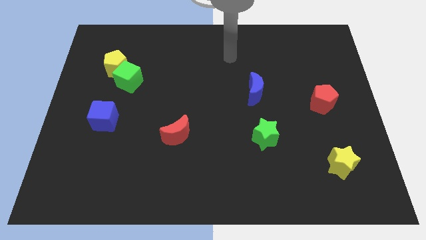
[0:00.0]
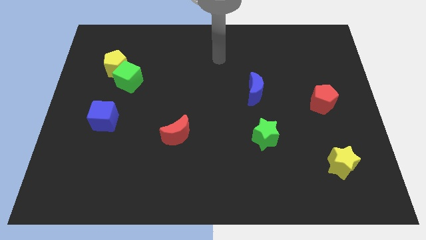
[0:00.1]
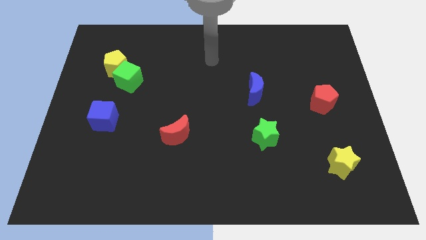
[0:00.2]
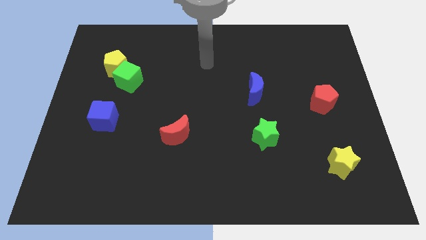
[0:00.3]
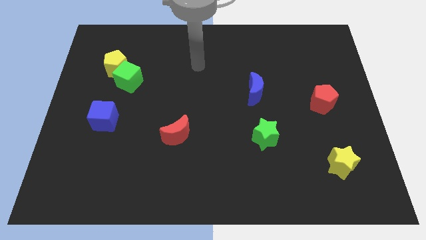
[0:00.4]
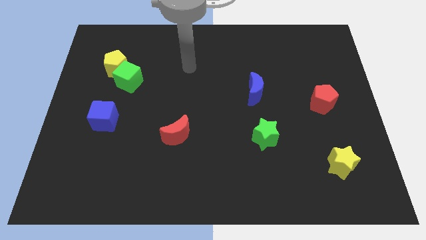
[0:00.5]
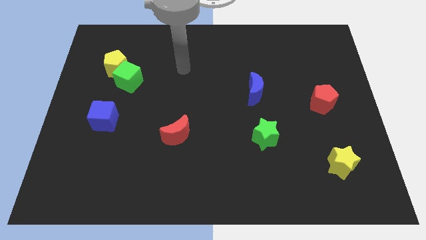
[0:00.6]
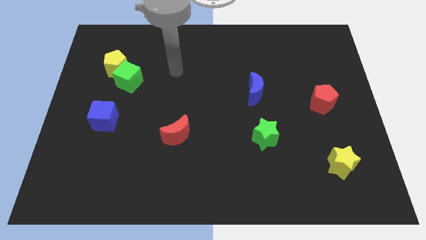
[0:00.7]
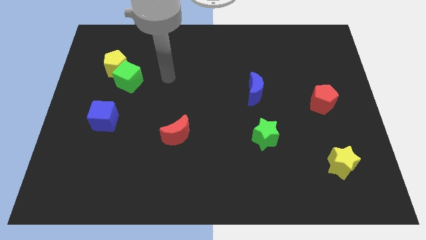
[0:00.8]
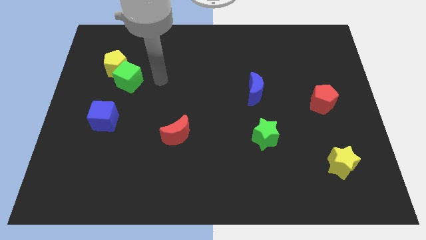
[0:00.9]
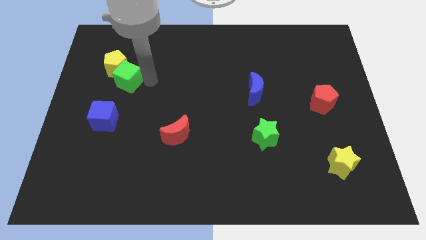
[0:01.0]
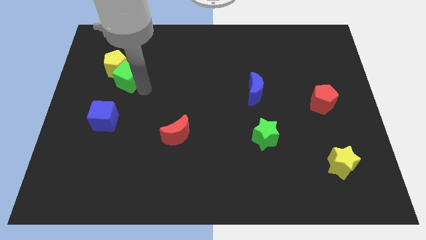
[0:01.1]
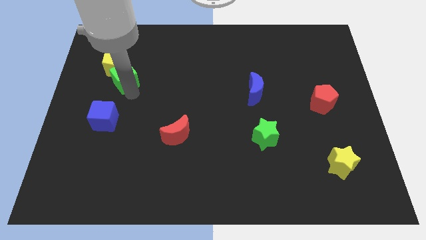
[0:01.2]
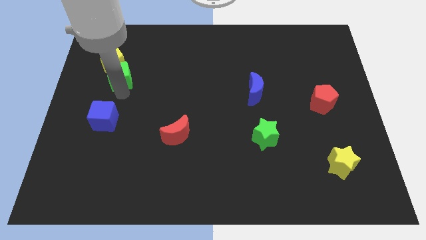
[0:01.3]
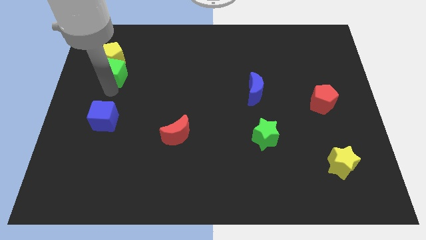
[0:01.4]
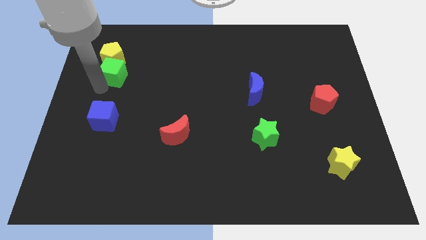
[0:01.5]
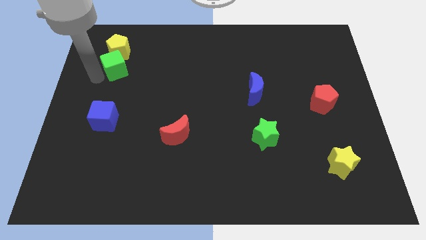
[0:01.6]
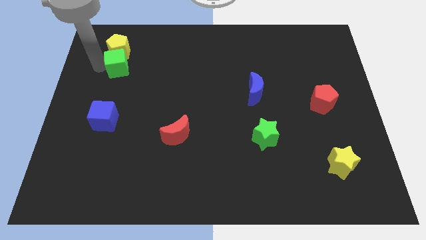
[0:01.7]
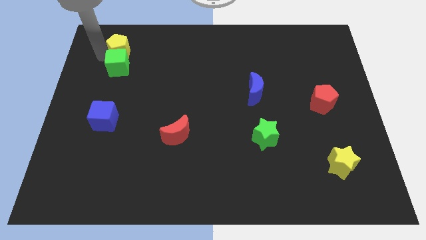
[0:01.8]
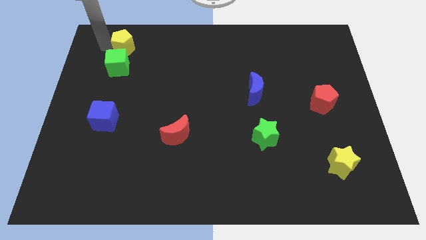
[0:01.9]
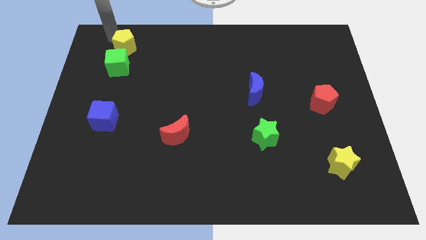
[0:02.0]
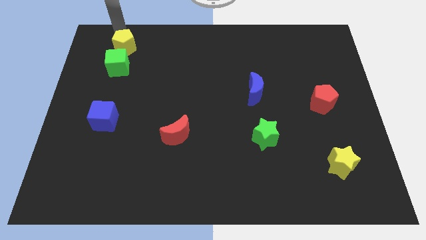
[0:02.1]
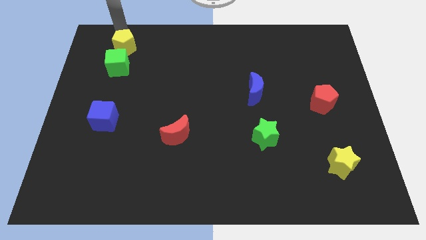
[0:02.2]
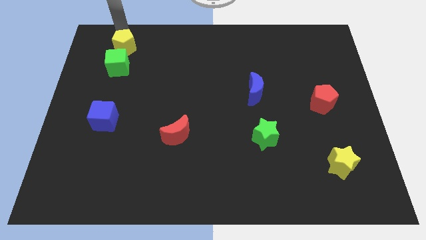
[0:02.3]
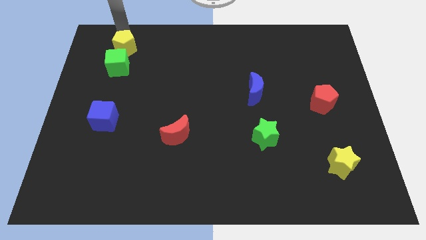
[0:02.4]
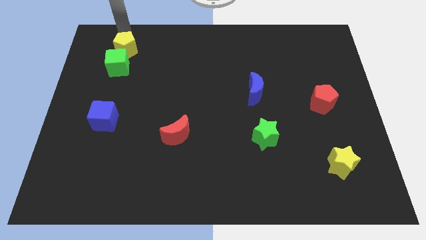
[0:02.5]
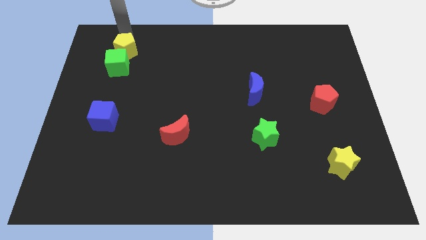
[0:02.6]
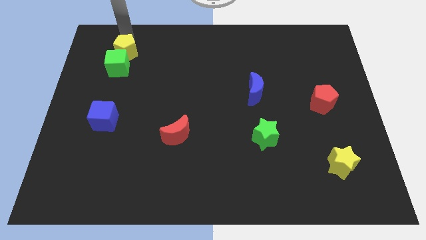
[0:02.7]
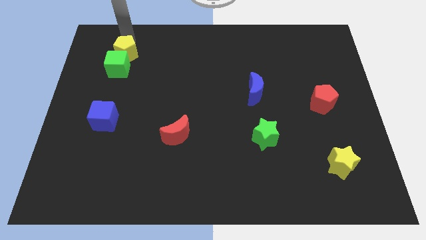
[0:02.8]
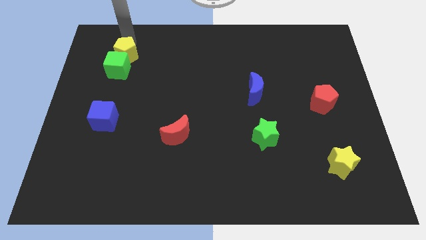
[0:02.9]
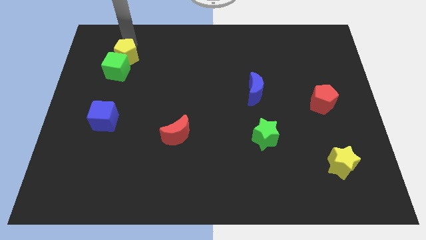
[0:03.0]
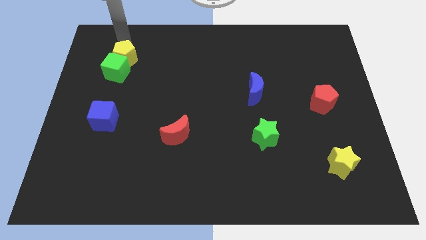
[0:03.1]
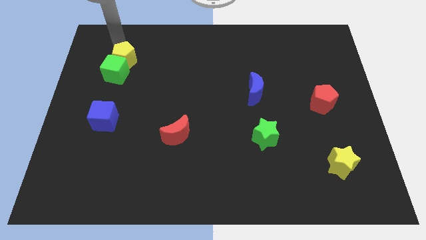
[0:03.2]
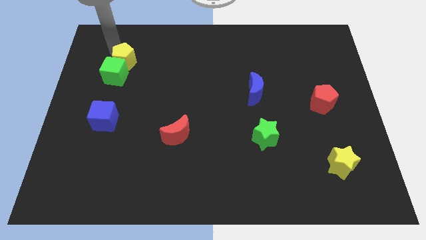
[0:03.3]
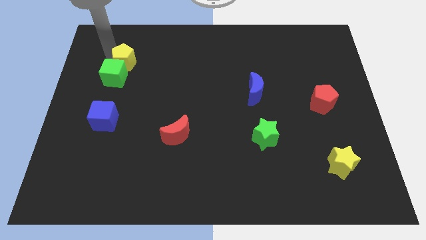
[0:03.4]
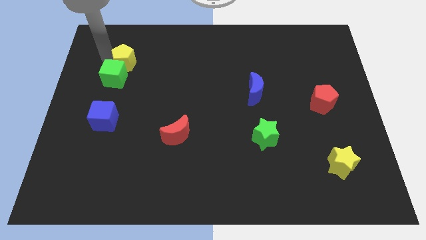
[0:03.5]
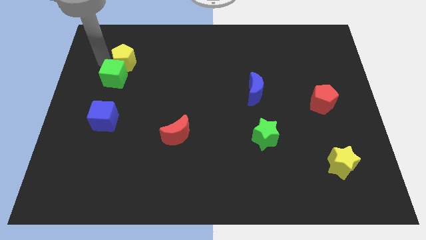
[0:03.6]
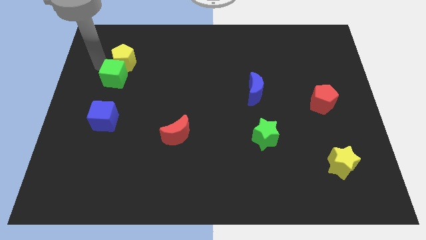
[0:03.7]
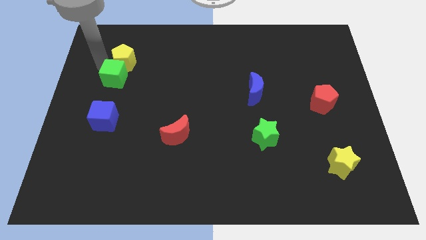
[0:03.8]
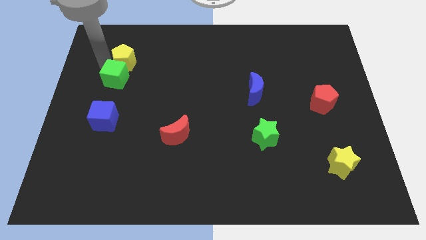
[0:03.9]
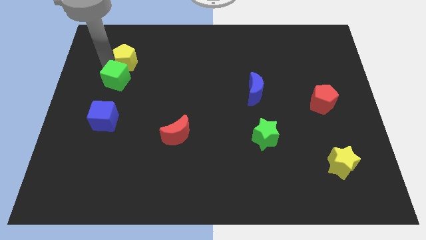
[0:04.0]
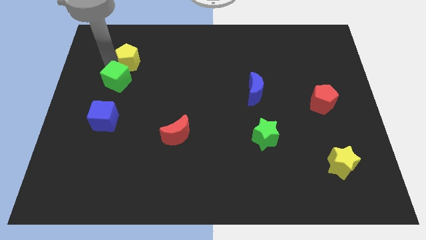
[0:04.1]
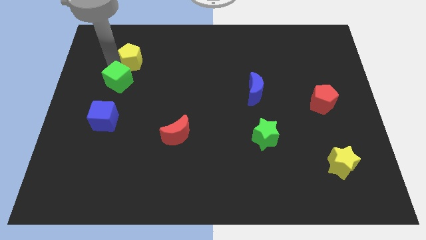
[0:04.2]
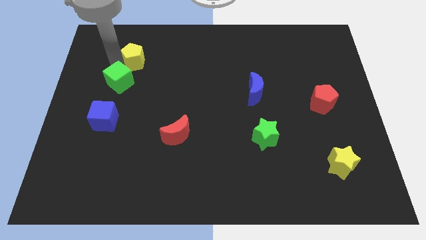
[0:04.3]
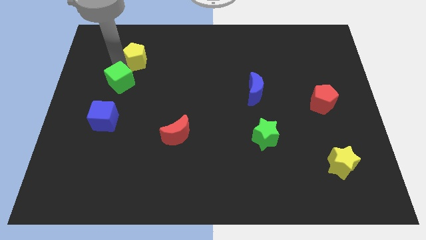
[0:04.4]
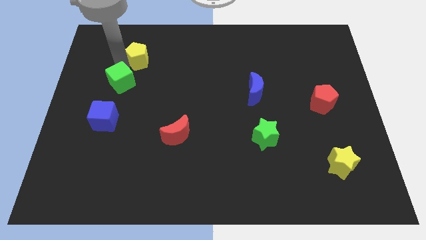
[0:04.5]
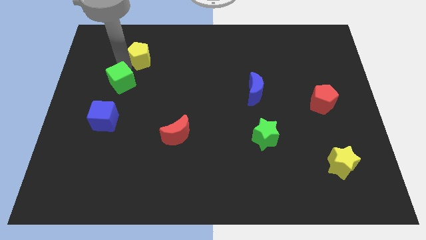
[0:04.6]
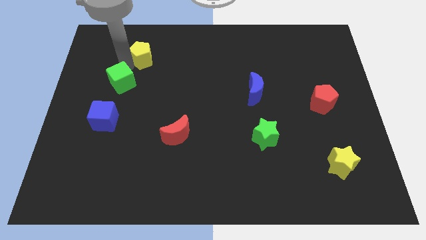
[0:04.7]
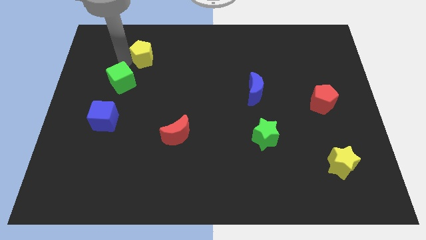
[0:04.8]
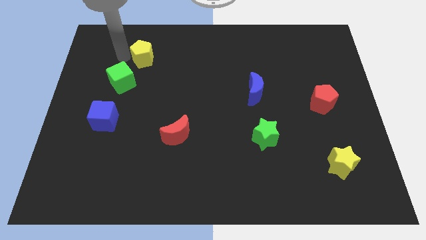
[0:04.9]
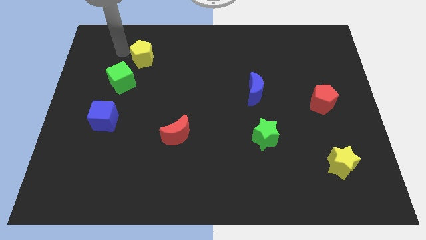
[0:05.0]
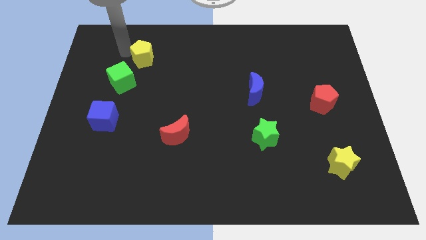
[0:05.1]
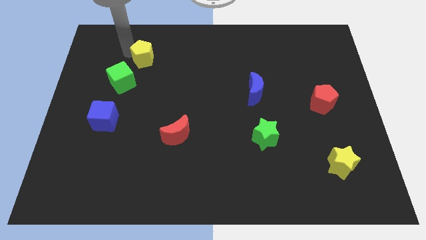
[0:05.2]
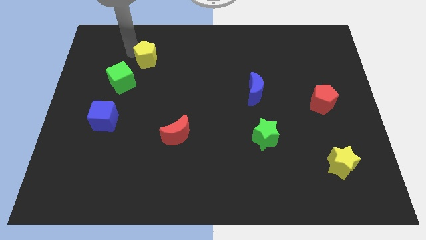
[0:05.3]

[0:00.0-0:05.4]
push the yellow pentagon a little to the right

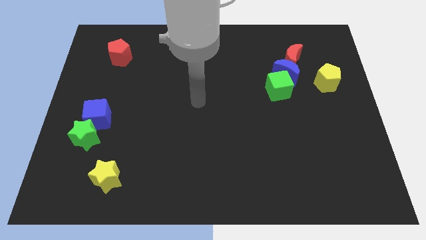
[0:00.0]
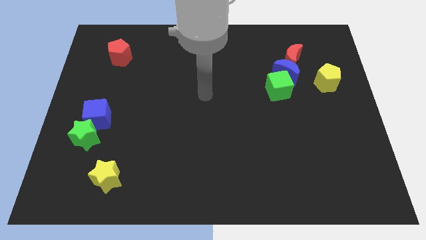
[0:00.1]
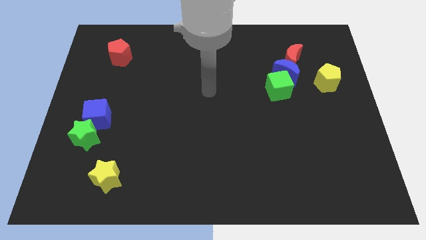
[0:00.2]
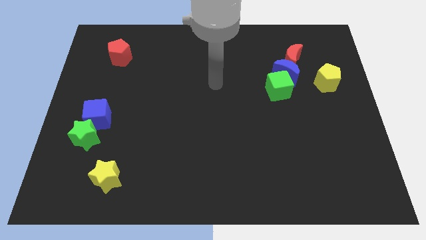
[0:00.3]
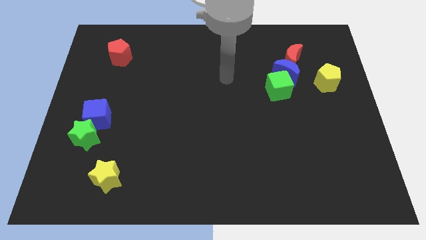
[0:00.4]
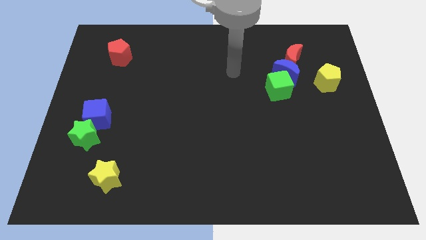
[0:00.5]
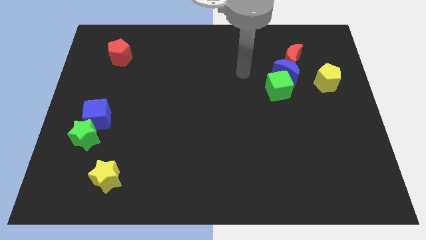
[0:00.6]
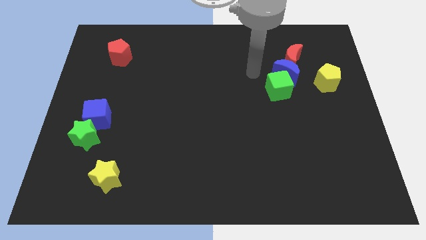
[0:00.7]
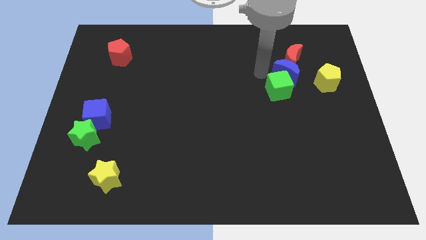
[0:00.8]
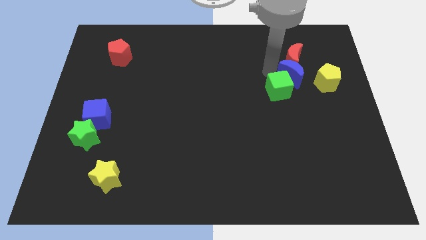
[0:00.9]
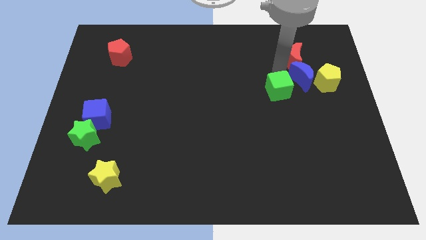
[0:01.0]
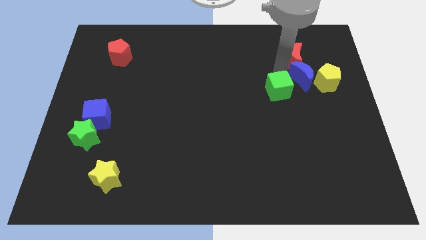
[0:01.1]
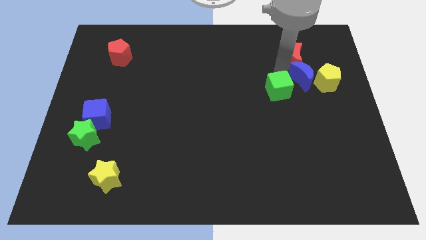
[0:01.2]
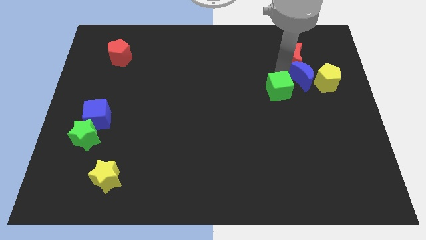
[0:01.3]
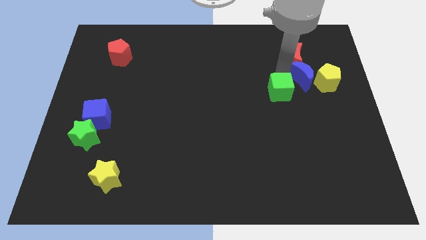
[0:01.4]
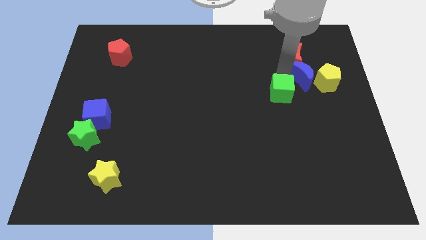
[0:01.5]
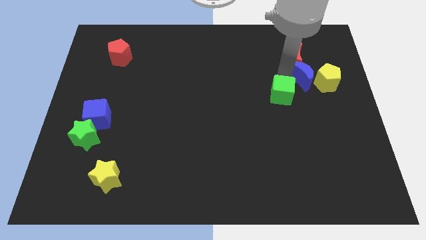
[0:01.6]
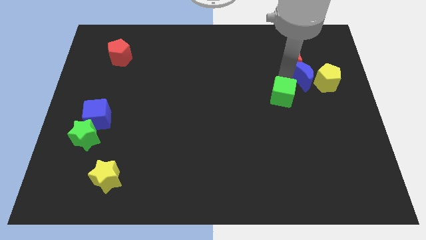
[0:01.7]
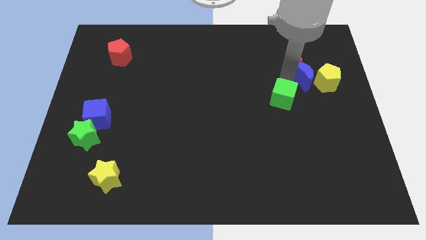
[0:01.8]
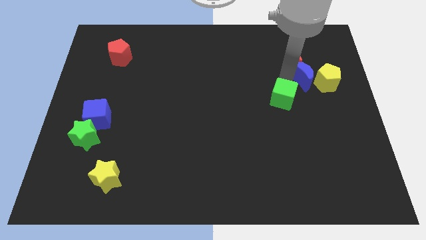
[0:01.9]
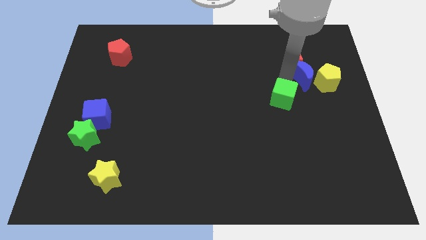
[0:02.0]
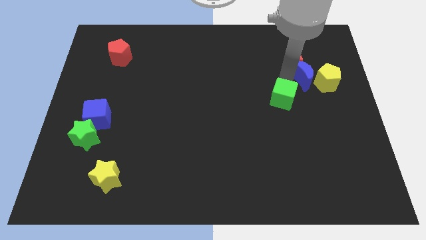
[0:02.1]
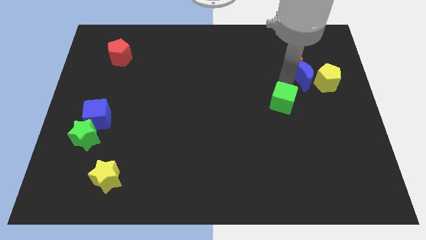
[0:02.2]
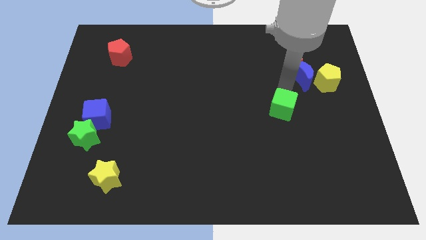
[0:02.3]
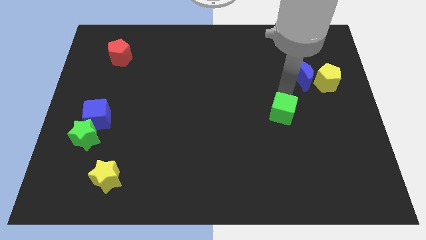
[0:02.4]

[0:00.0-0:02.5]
slightly move the green cube downwards

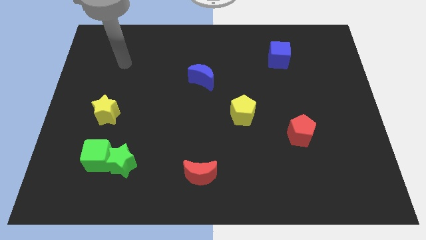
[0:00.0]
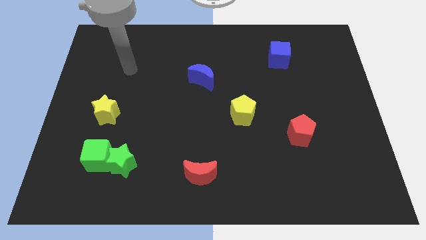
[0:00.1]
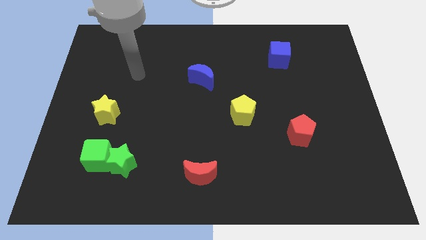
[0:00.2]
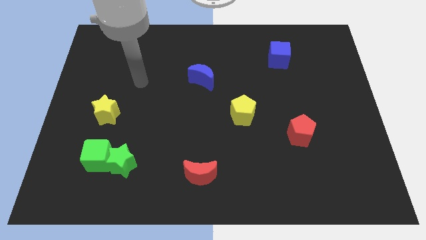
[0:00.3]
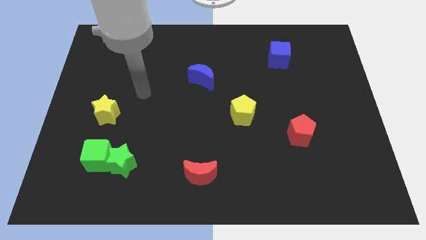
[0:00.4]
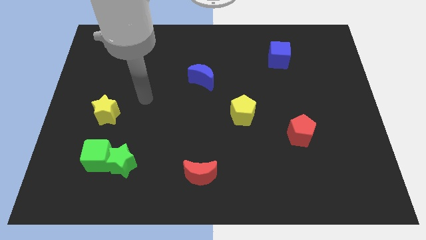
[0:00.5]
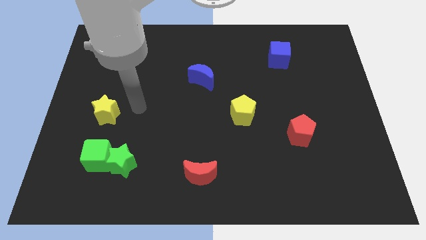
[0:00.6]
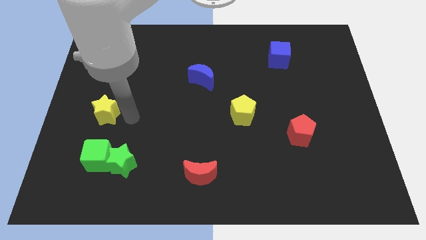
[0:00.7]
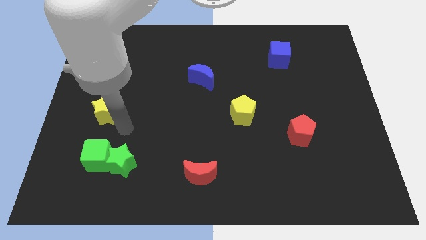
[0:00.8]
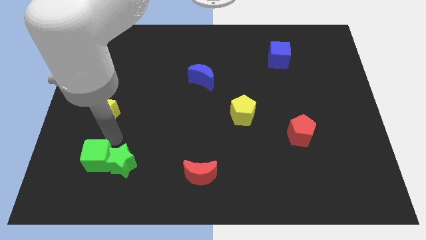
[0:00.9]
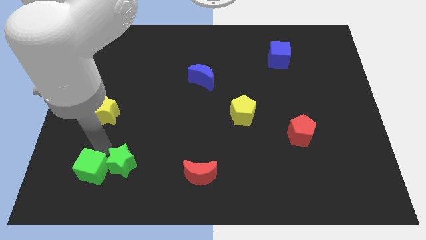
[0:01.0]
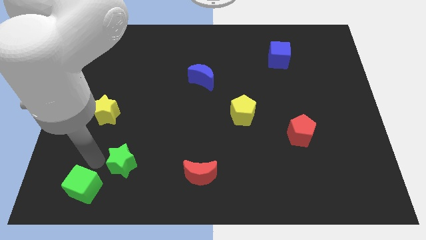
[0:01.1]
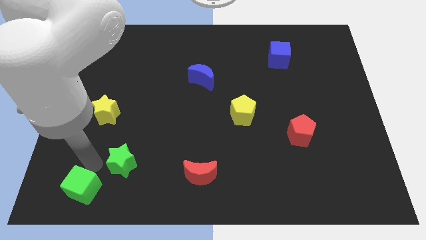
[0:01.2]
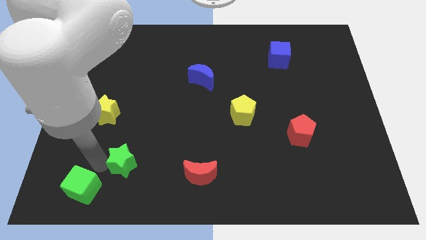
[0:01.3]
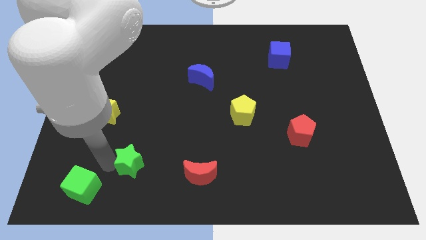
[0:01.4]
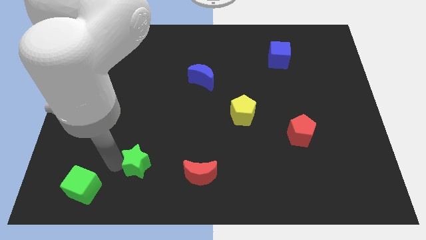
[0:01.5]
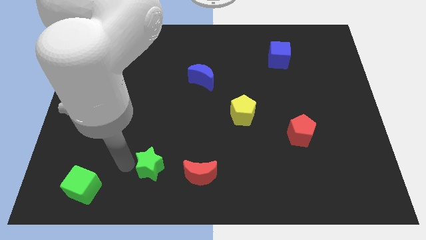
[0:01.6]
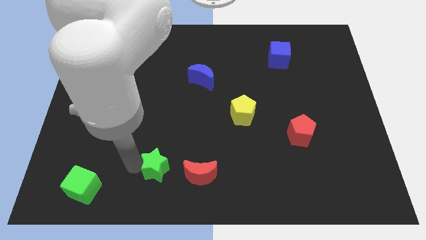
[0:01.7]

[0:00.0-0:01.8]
push the green star a little to the right
